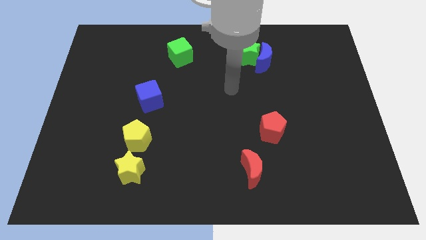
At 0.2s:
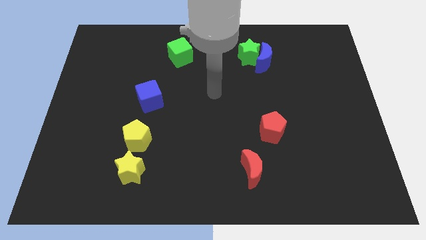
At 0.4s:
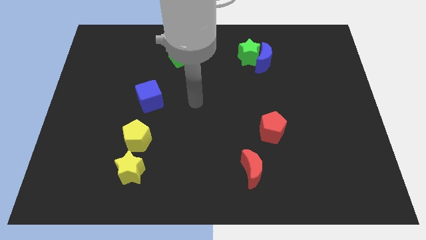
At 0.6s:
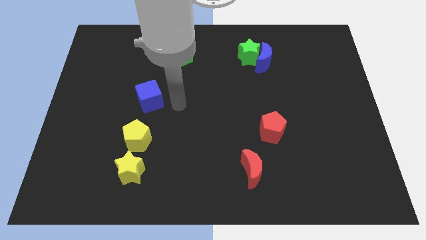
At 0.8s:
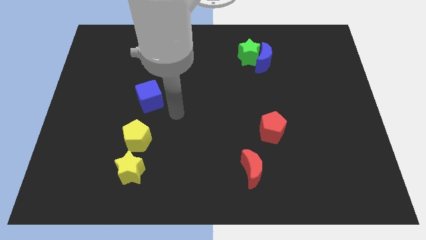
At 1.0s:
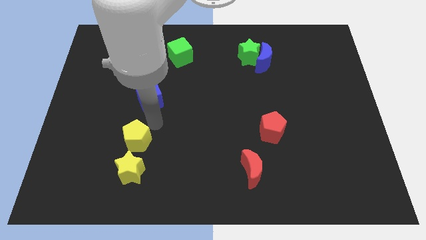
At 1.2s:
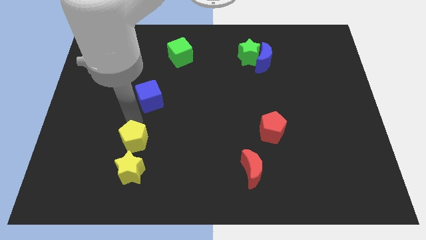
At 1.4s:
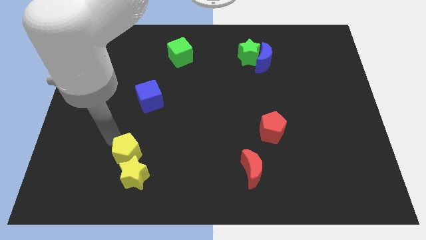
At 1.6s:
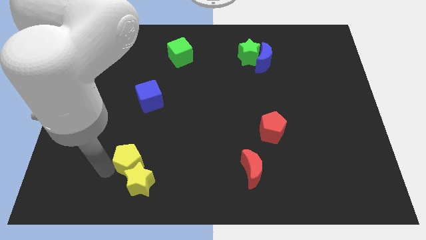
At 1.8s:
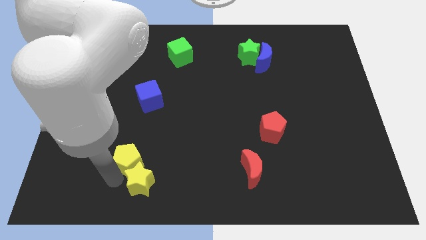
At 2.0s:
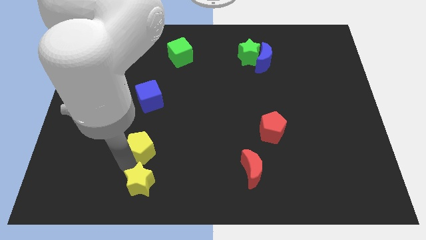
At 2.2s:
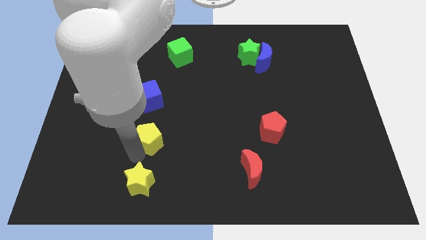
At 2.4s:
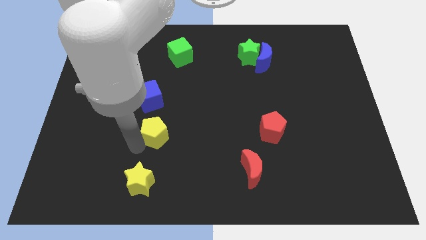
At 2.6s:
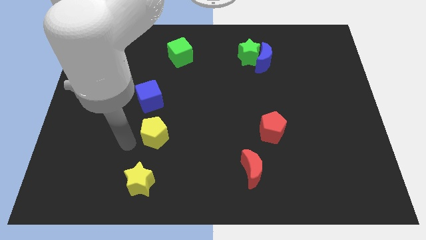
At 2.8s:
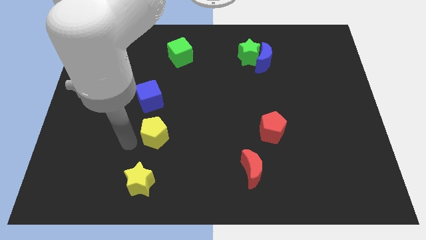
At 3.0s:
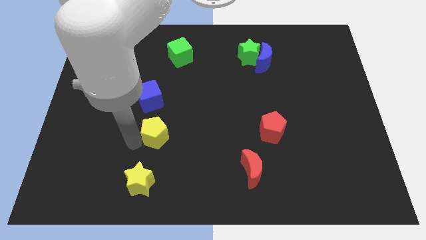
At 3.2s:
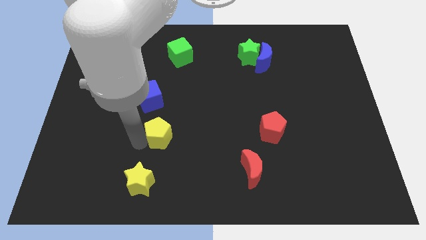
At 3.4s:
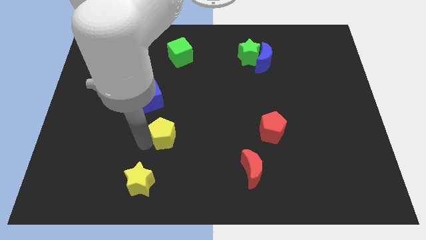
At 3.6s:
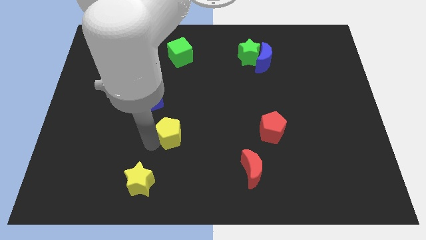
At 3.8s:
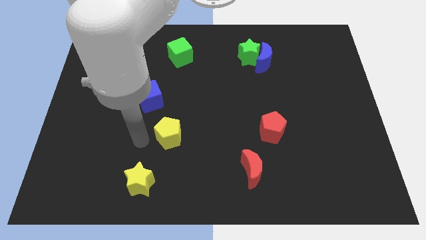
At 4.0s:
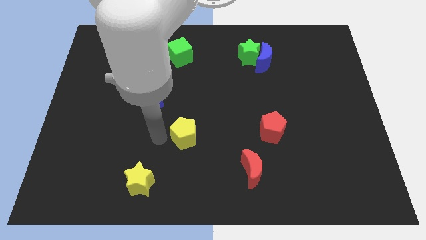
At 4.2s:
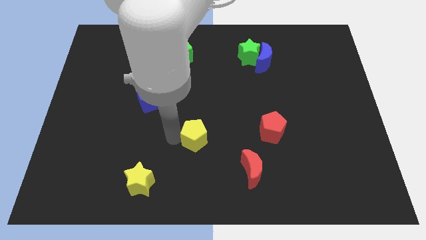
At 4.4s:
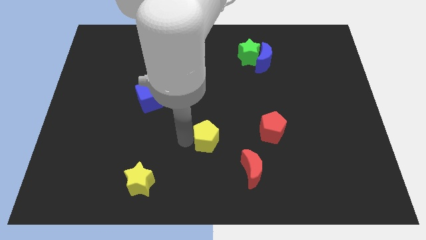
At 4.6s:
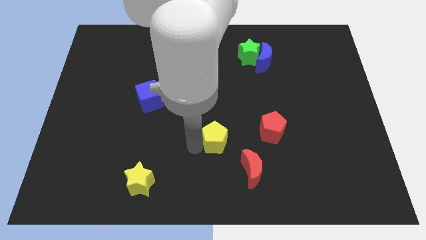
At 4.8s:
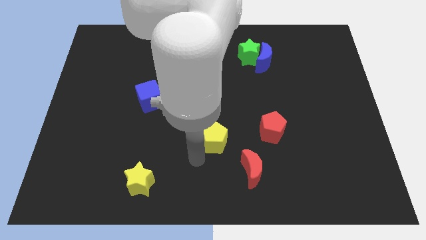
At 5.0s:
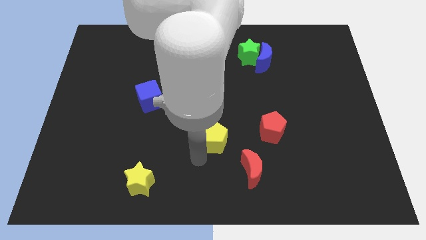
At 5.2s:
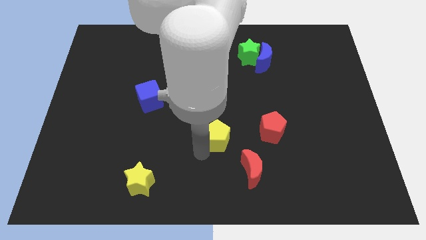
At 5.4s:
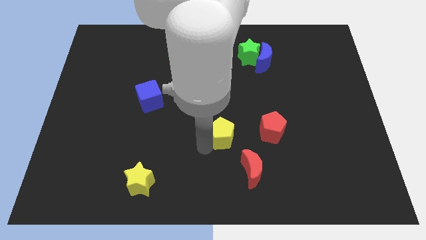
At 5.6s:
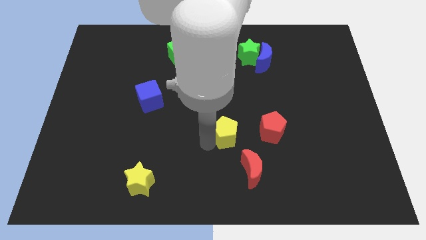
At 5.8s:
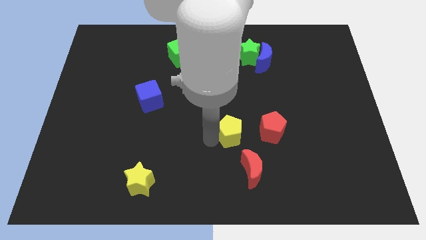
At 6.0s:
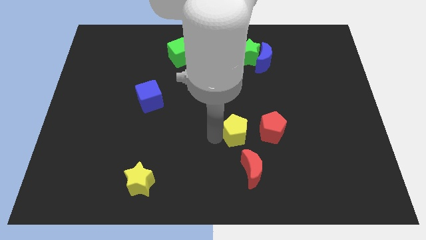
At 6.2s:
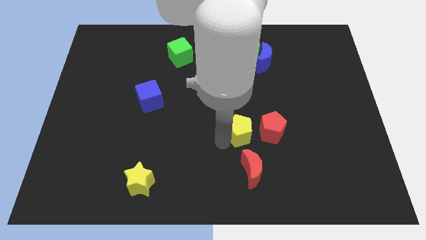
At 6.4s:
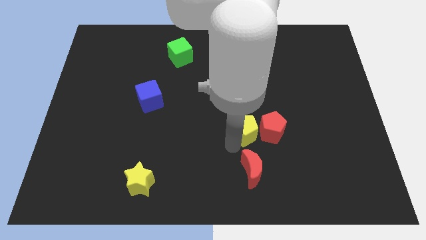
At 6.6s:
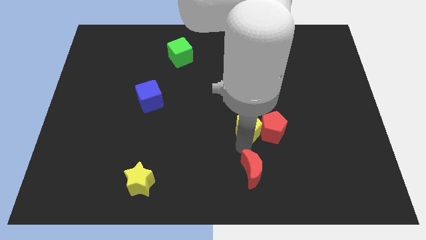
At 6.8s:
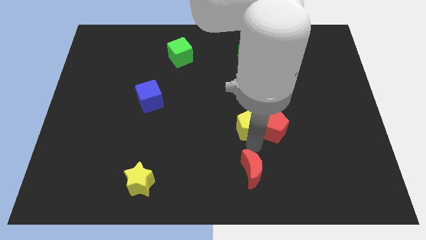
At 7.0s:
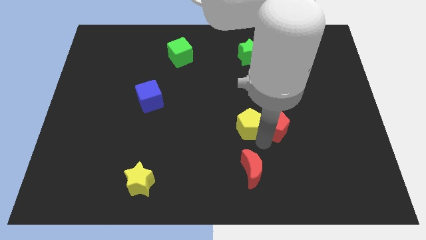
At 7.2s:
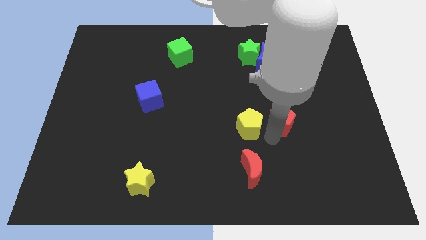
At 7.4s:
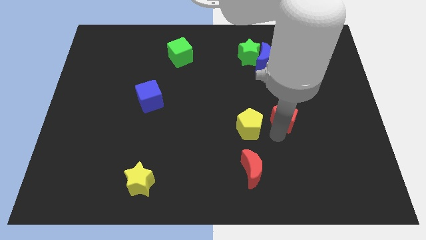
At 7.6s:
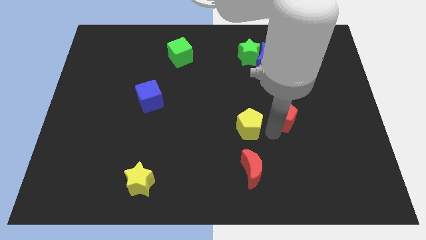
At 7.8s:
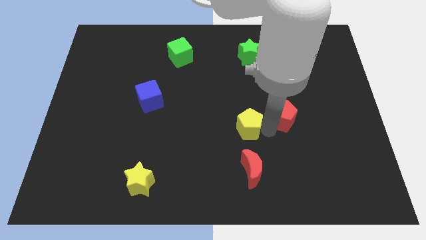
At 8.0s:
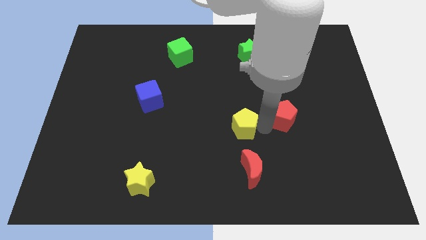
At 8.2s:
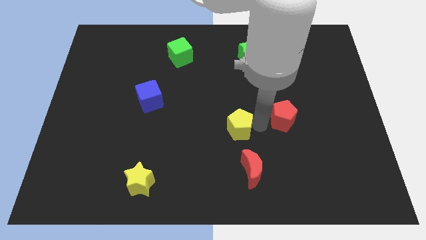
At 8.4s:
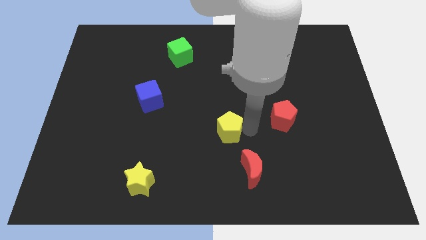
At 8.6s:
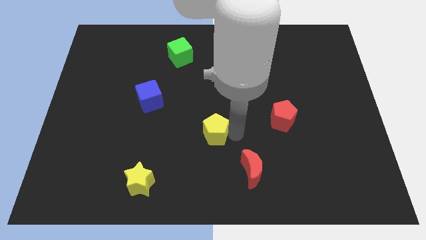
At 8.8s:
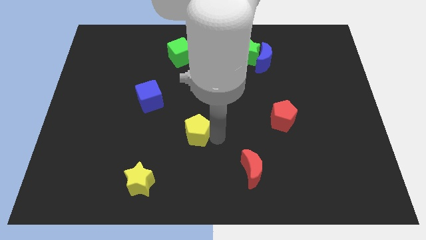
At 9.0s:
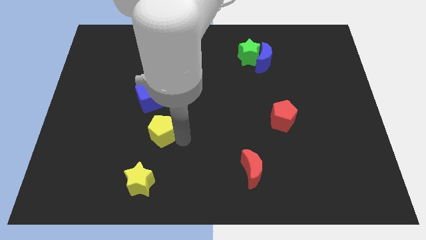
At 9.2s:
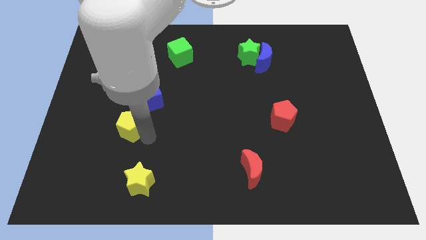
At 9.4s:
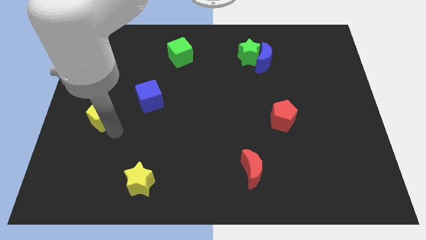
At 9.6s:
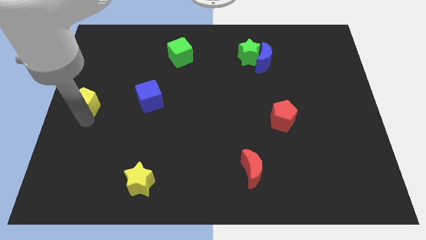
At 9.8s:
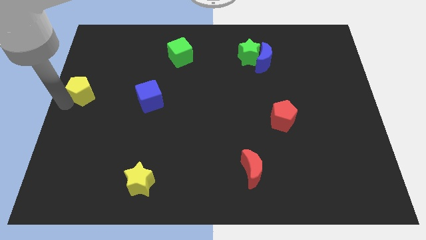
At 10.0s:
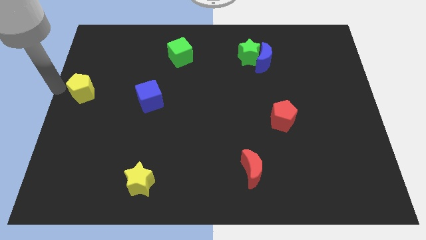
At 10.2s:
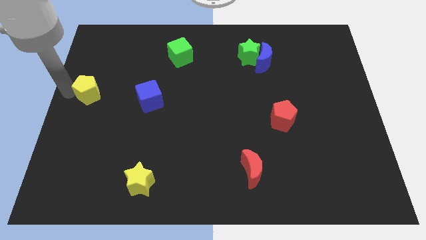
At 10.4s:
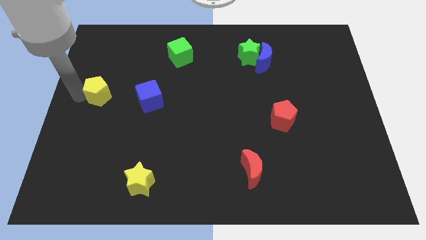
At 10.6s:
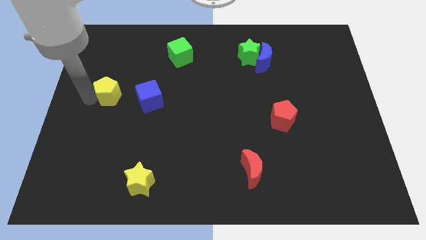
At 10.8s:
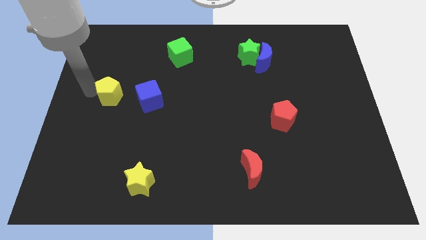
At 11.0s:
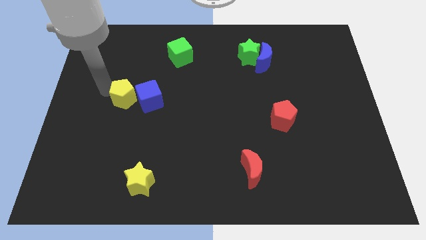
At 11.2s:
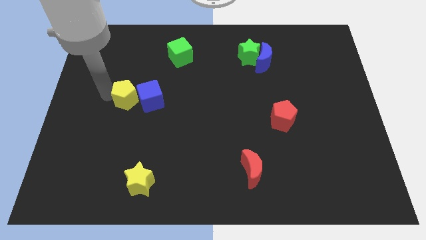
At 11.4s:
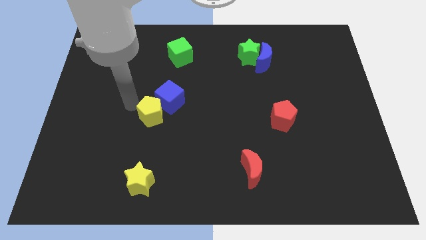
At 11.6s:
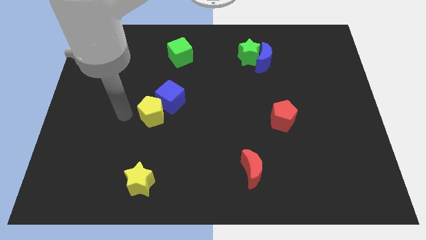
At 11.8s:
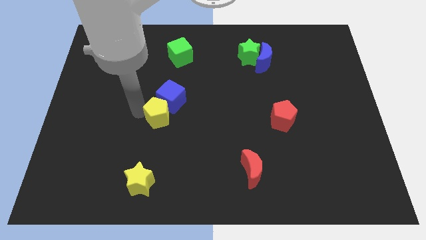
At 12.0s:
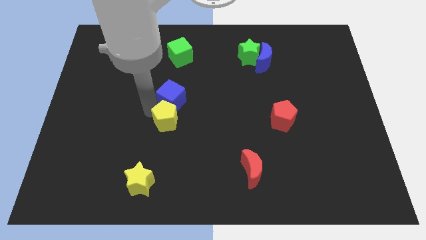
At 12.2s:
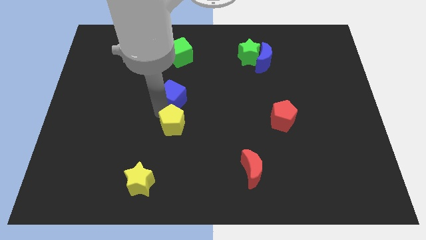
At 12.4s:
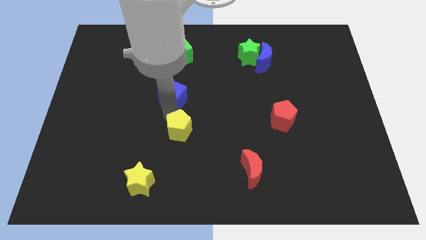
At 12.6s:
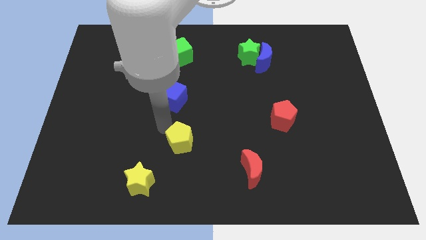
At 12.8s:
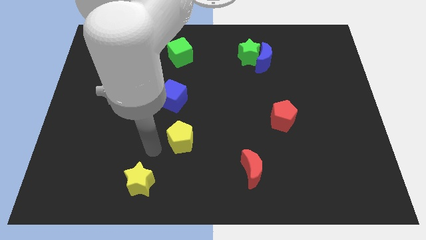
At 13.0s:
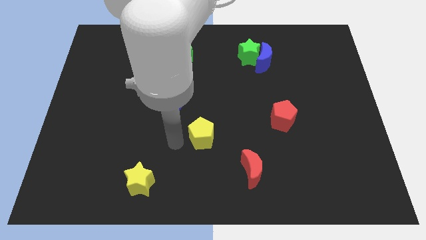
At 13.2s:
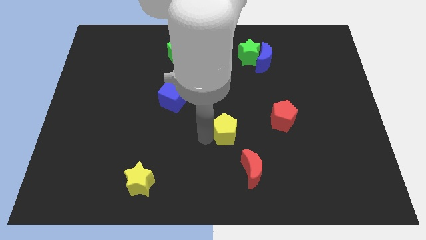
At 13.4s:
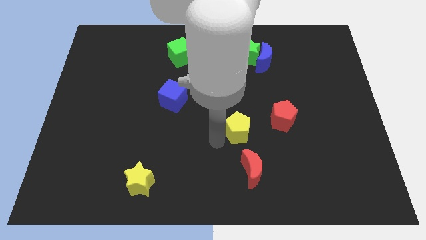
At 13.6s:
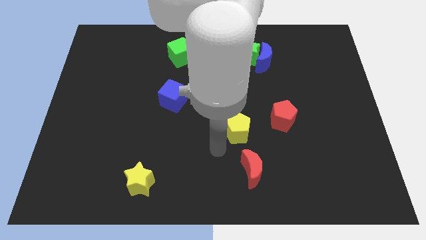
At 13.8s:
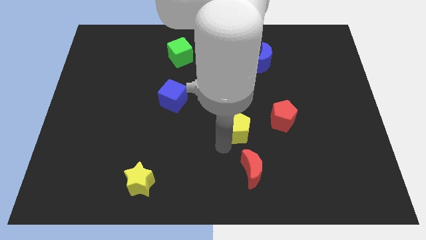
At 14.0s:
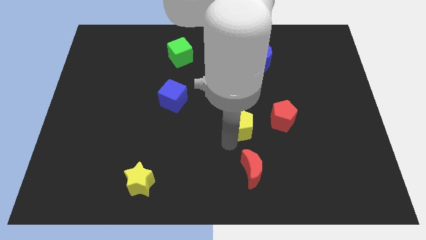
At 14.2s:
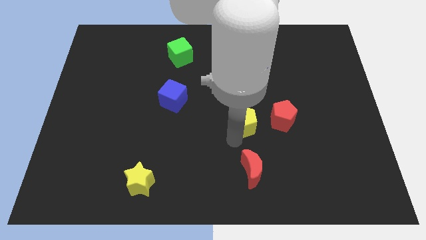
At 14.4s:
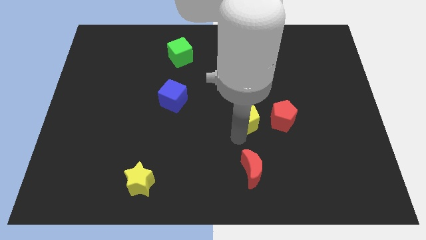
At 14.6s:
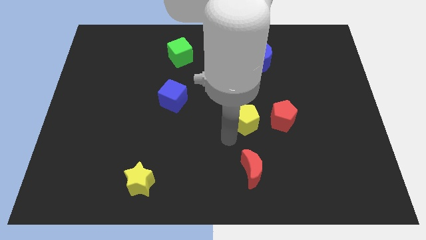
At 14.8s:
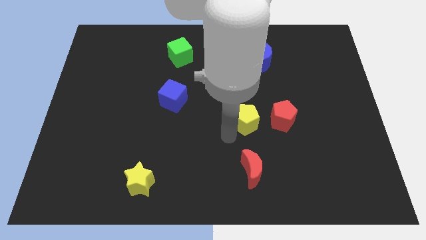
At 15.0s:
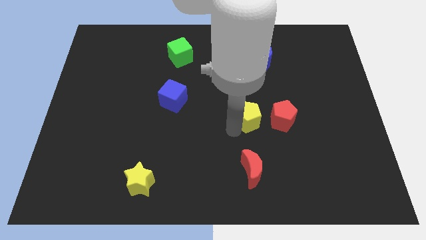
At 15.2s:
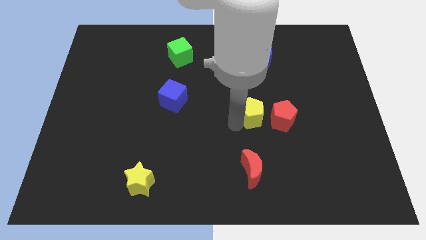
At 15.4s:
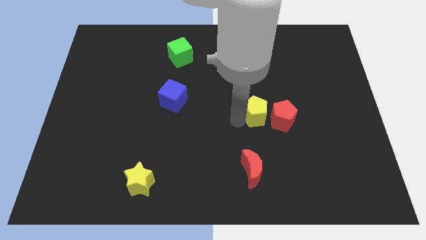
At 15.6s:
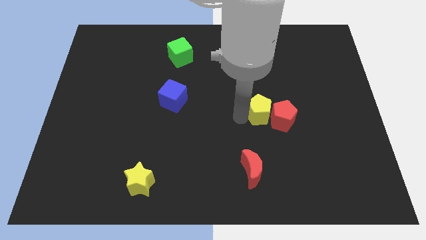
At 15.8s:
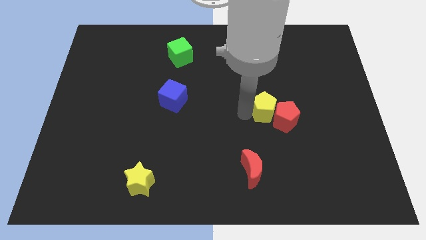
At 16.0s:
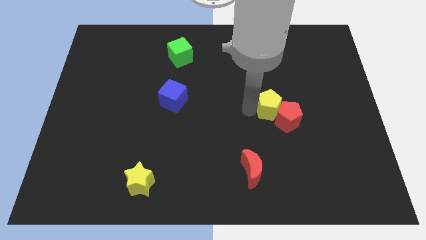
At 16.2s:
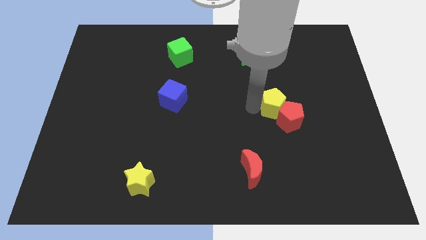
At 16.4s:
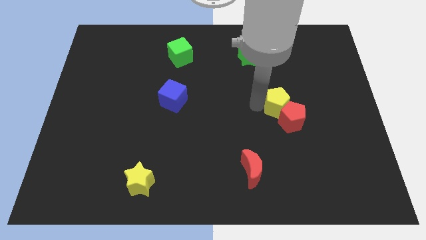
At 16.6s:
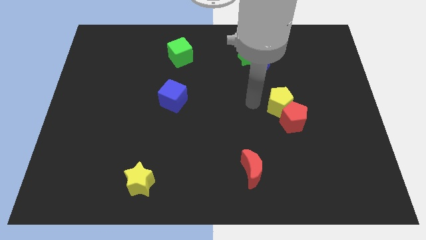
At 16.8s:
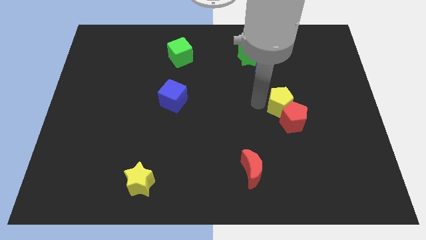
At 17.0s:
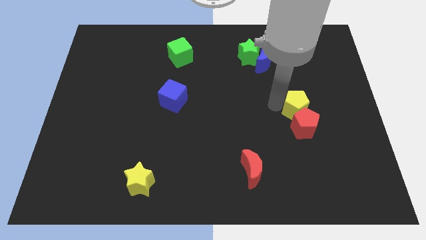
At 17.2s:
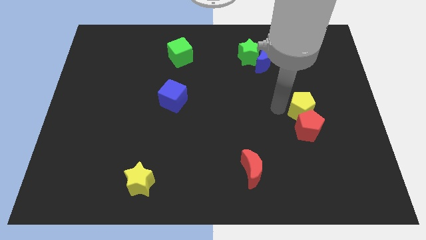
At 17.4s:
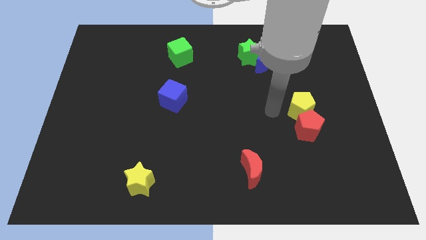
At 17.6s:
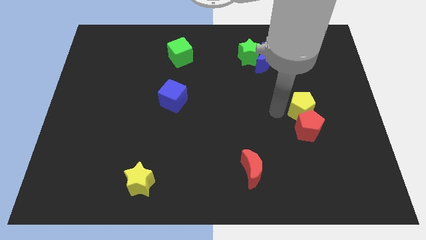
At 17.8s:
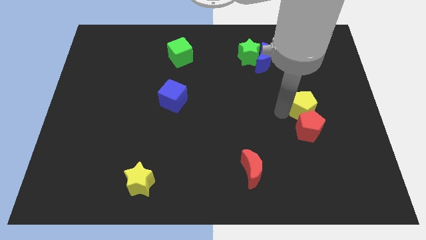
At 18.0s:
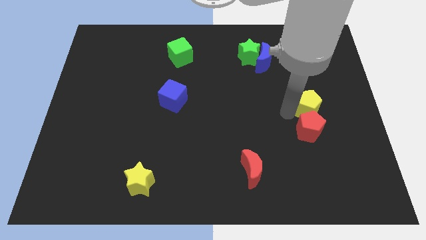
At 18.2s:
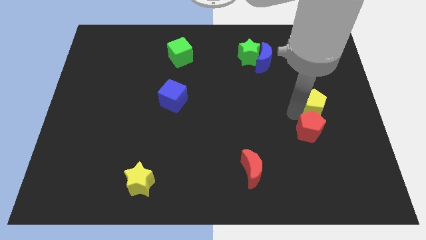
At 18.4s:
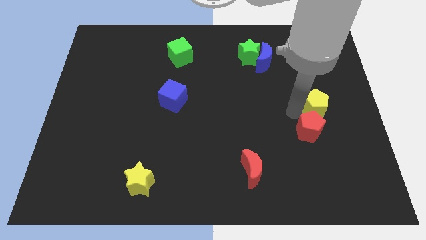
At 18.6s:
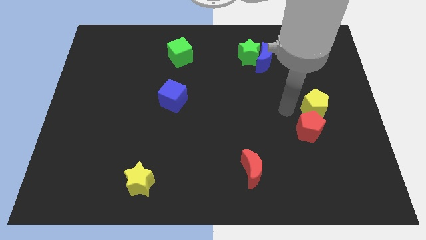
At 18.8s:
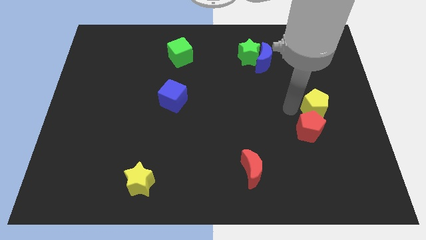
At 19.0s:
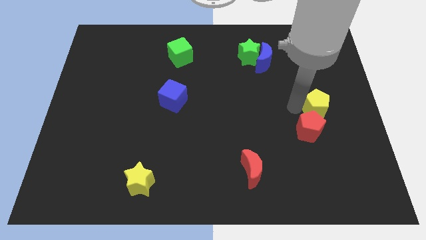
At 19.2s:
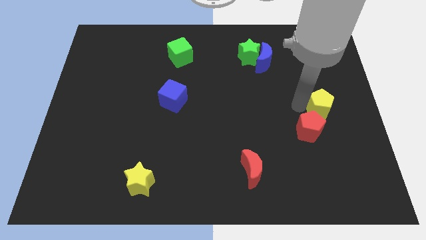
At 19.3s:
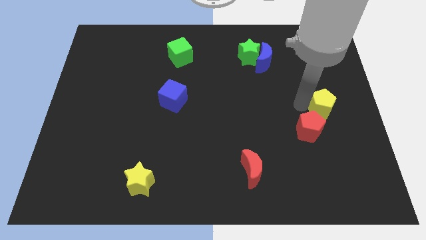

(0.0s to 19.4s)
put the yellow pentagon to the right side
